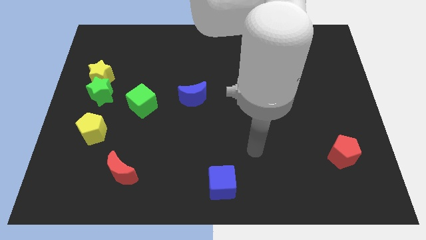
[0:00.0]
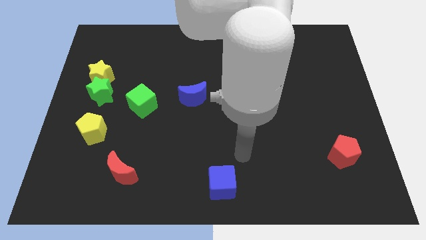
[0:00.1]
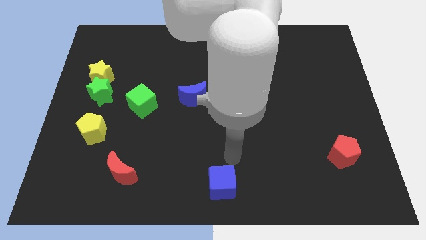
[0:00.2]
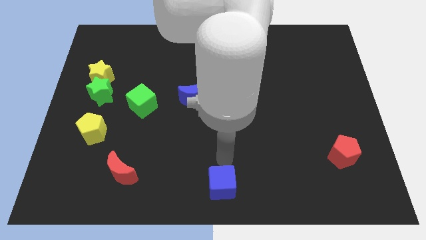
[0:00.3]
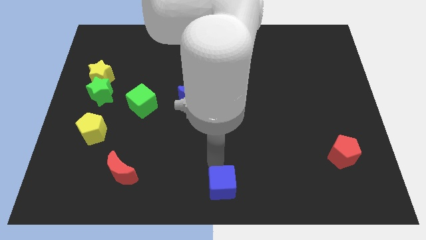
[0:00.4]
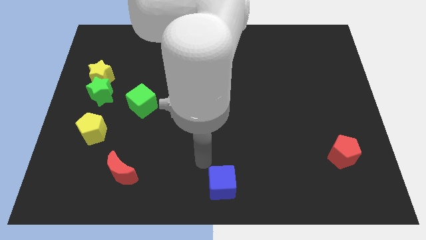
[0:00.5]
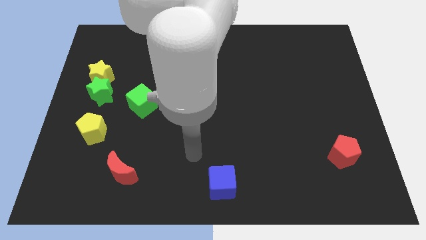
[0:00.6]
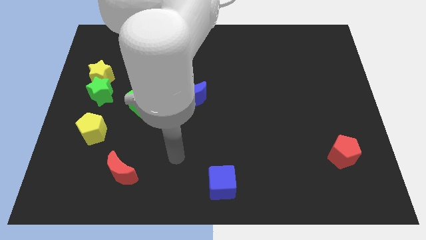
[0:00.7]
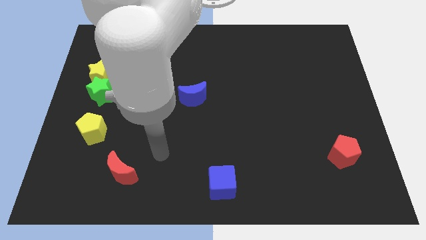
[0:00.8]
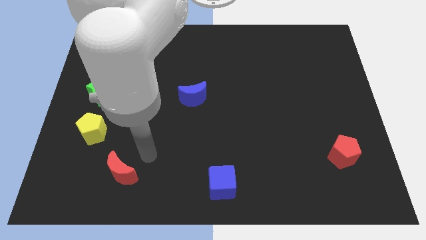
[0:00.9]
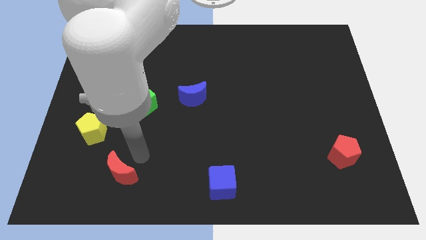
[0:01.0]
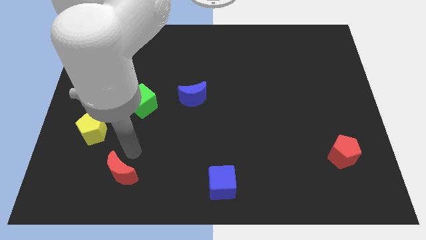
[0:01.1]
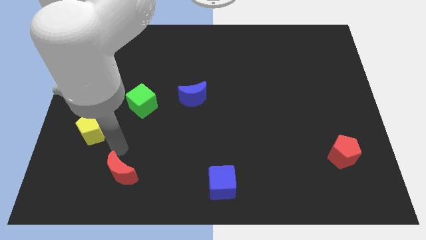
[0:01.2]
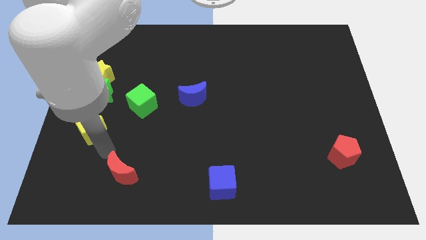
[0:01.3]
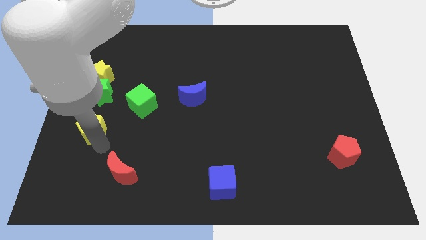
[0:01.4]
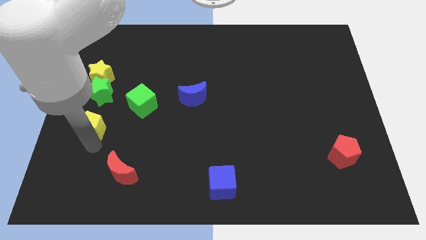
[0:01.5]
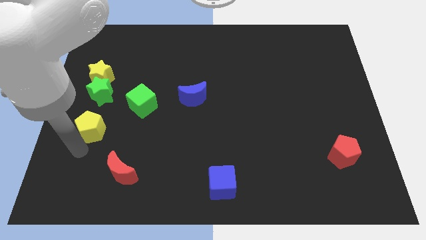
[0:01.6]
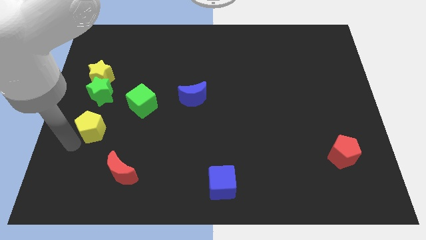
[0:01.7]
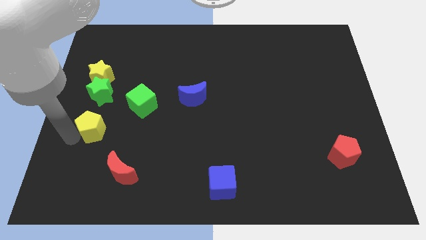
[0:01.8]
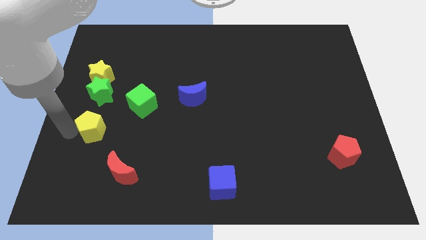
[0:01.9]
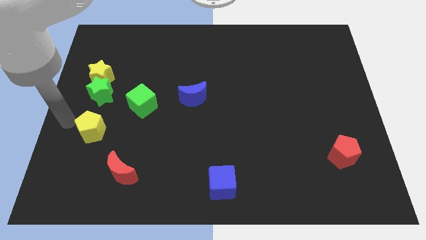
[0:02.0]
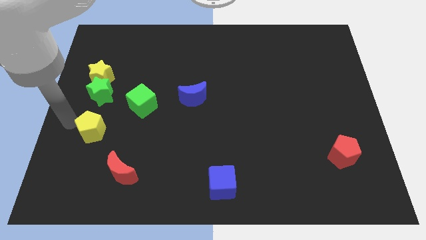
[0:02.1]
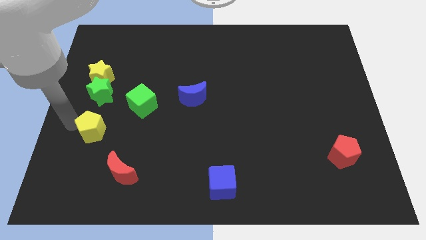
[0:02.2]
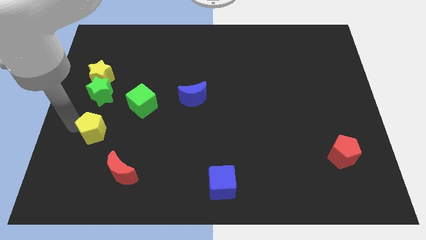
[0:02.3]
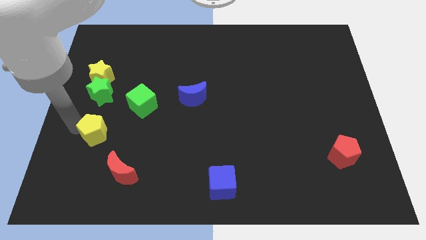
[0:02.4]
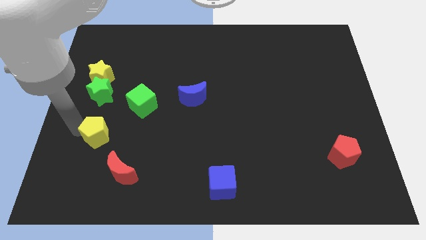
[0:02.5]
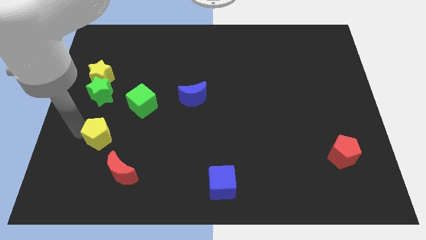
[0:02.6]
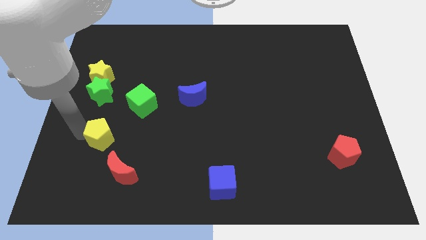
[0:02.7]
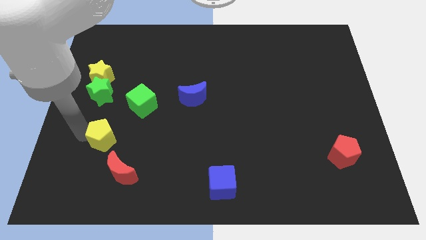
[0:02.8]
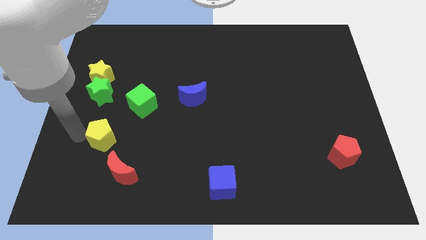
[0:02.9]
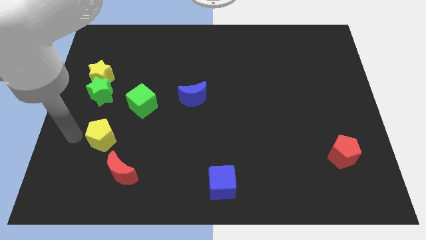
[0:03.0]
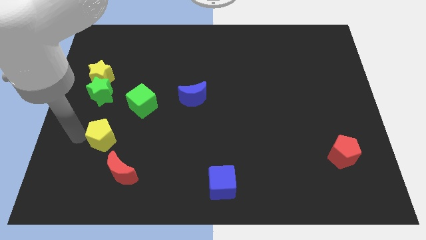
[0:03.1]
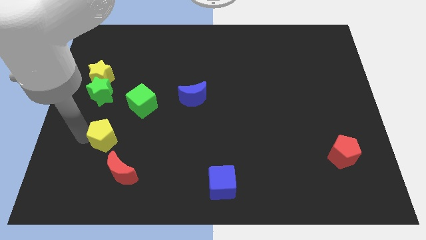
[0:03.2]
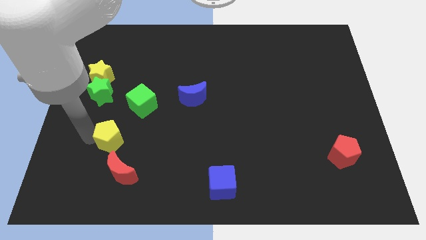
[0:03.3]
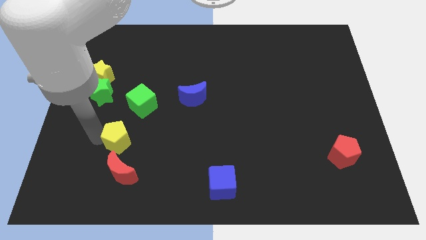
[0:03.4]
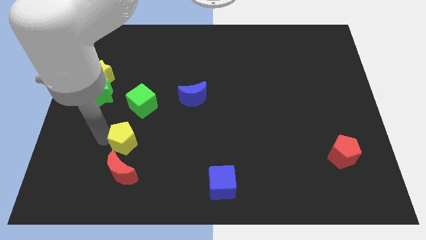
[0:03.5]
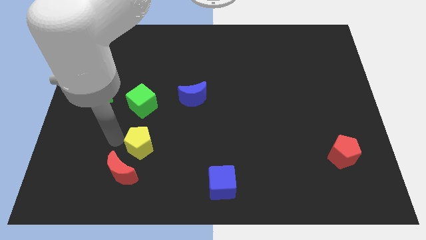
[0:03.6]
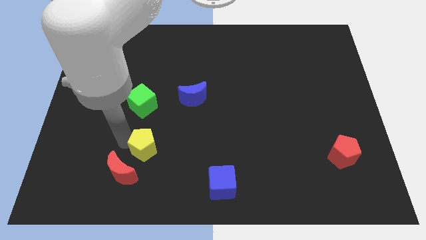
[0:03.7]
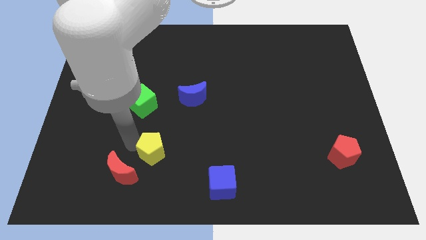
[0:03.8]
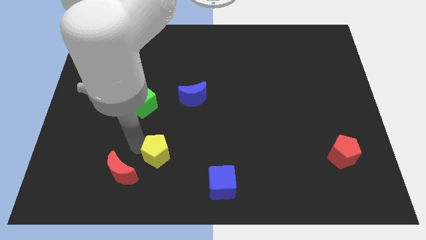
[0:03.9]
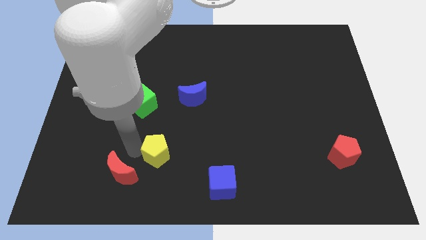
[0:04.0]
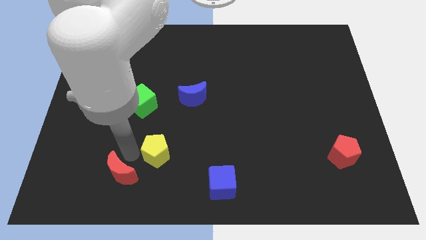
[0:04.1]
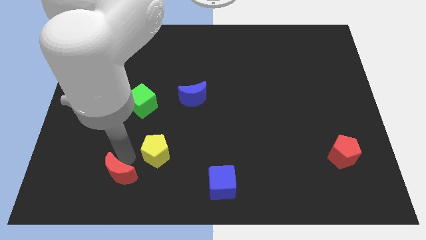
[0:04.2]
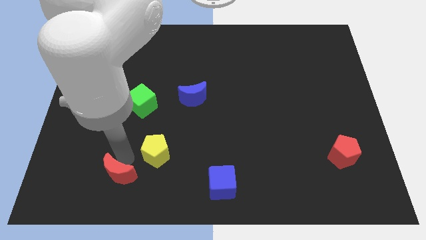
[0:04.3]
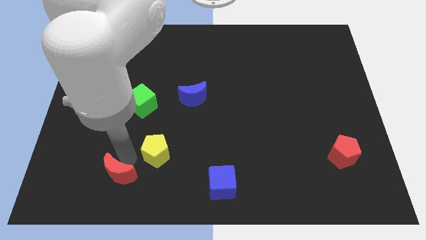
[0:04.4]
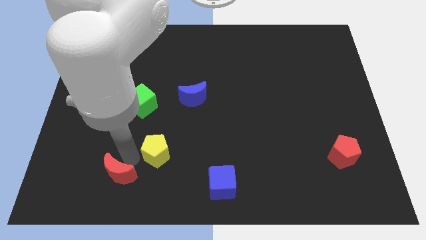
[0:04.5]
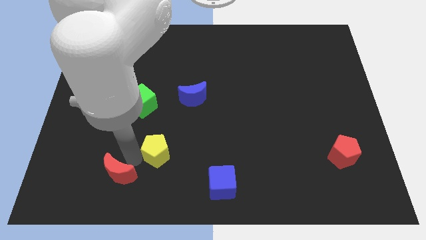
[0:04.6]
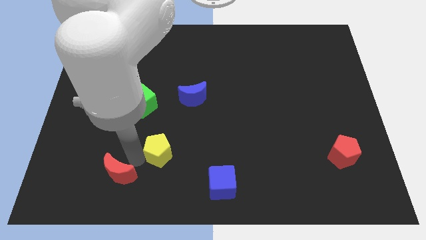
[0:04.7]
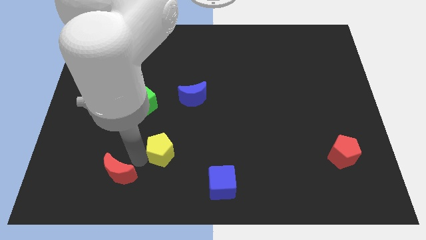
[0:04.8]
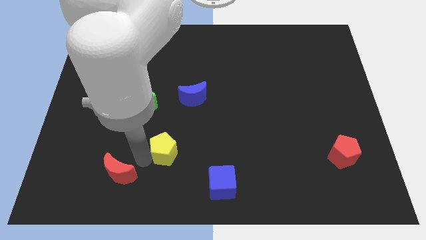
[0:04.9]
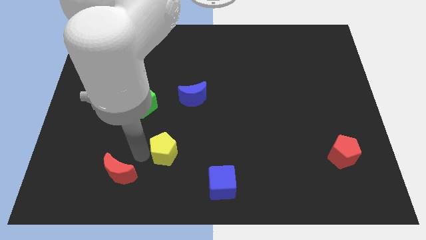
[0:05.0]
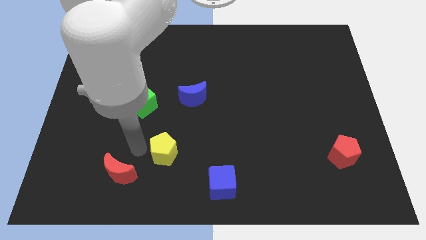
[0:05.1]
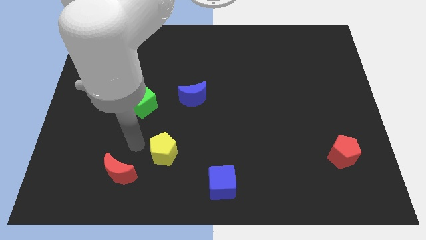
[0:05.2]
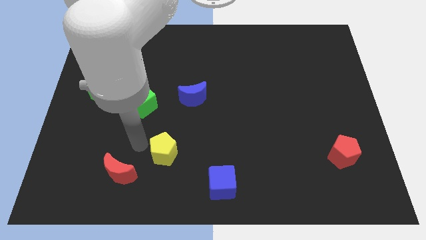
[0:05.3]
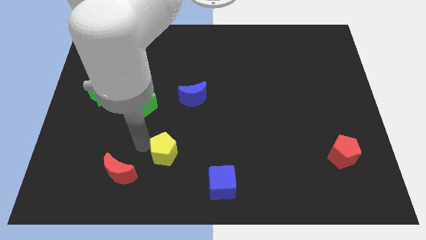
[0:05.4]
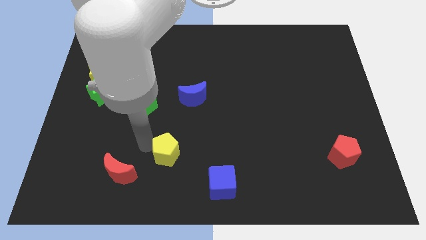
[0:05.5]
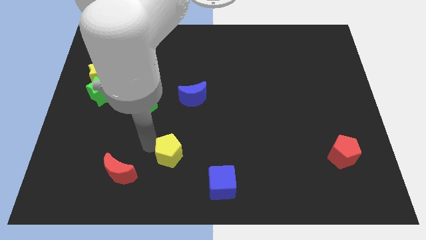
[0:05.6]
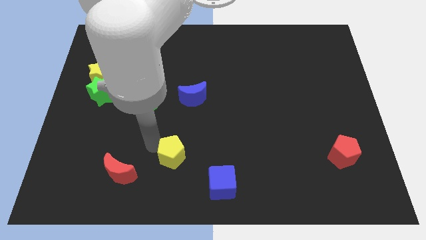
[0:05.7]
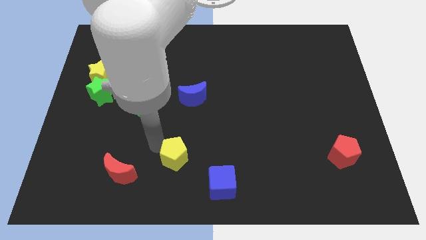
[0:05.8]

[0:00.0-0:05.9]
push the yellow pentagon diagonally up and to the left of the blue cube
